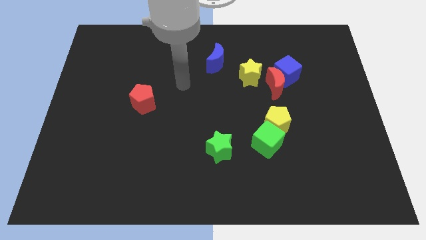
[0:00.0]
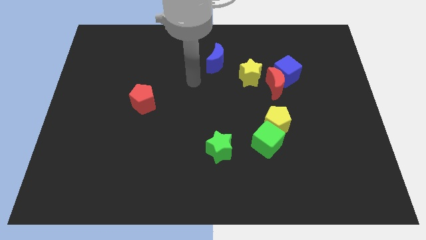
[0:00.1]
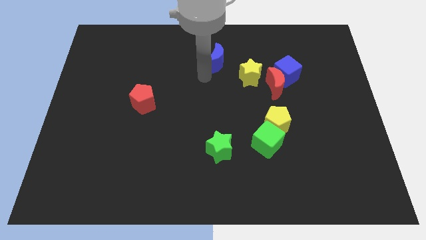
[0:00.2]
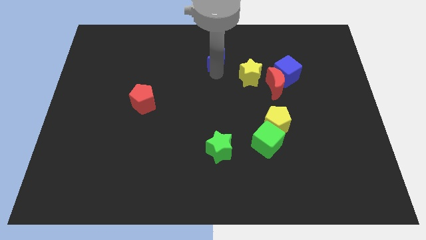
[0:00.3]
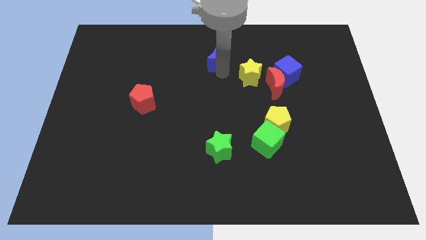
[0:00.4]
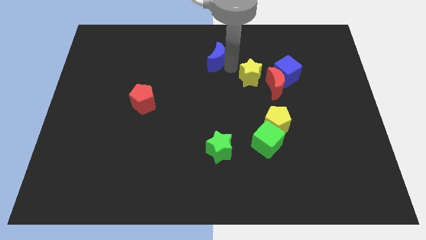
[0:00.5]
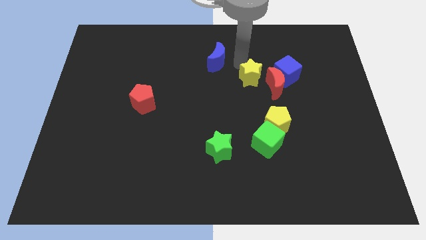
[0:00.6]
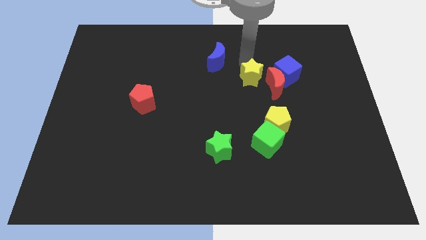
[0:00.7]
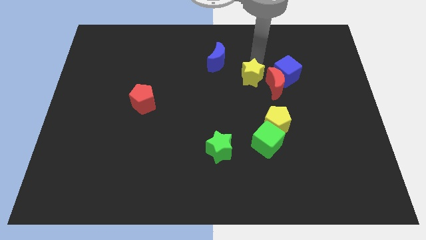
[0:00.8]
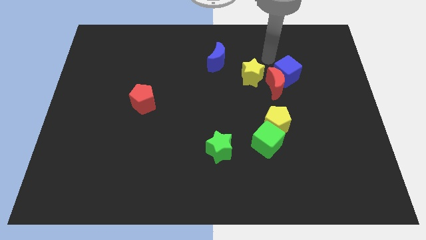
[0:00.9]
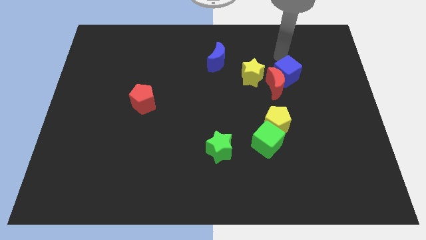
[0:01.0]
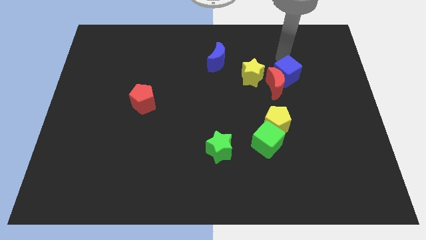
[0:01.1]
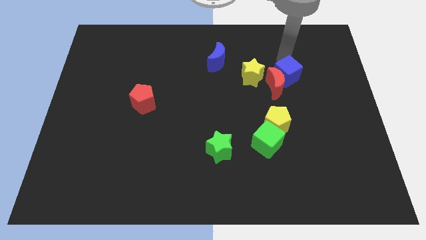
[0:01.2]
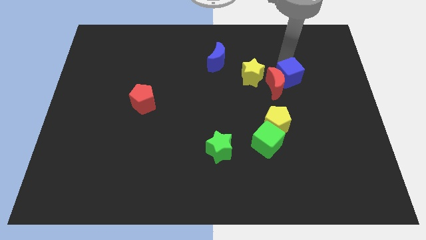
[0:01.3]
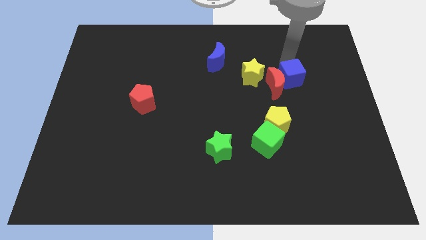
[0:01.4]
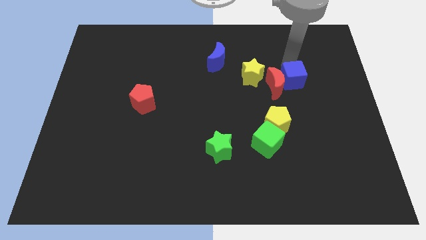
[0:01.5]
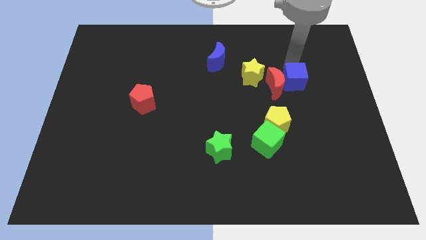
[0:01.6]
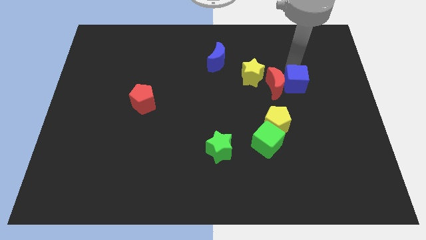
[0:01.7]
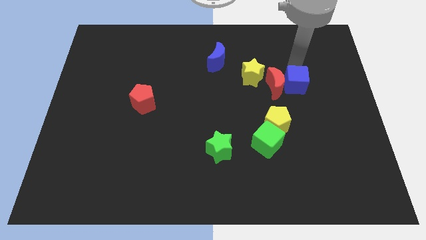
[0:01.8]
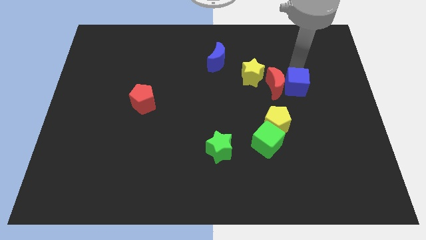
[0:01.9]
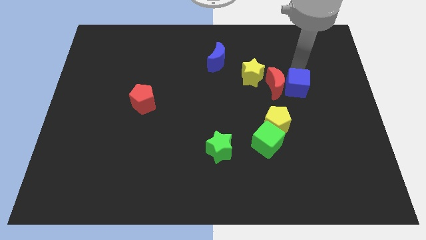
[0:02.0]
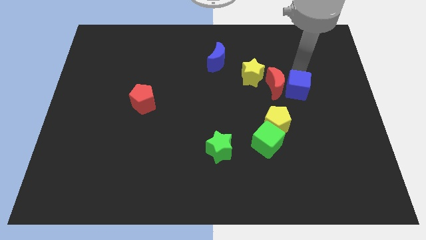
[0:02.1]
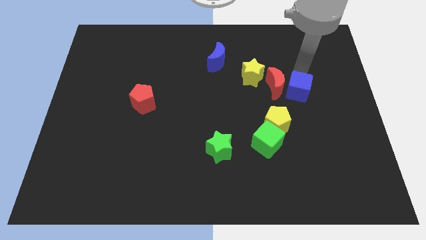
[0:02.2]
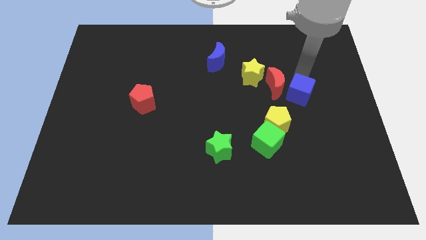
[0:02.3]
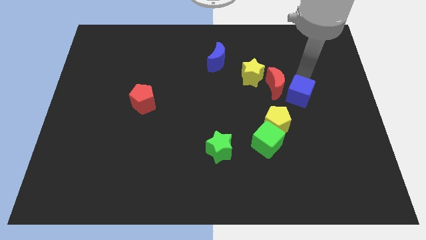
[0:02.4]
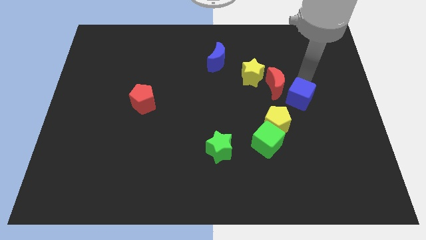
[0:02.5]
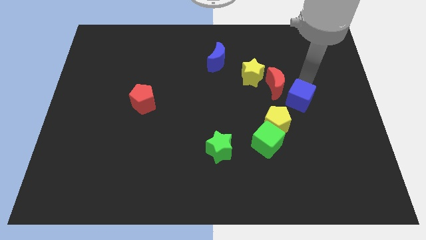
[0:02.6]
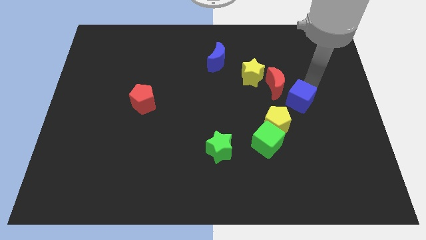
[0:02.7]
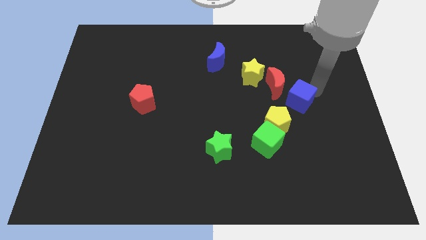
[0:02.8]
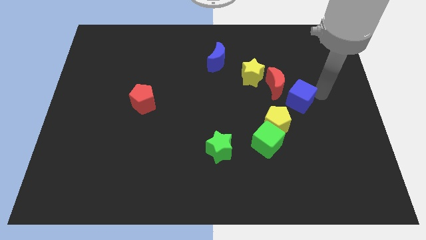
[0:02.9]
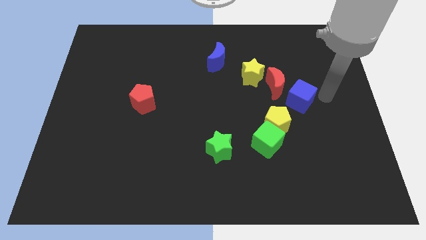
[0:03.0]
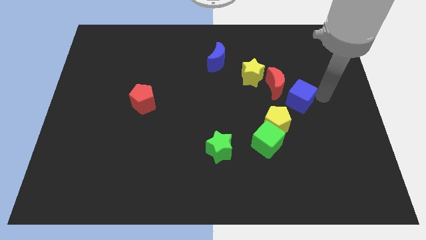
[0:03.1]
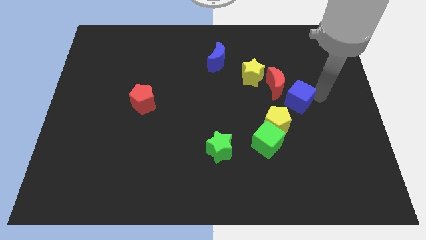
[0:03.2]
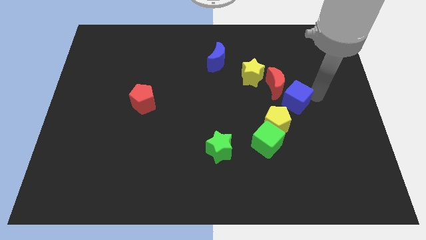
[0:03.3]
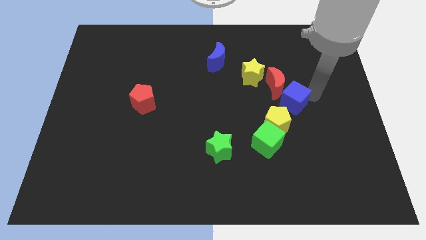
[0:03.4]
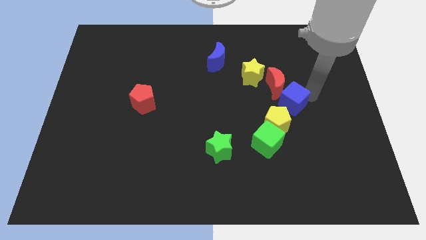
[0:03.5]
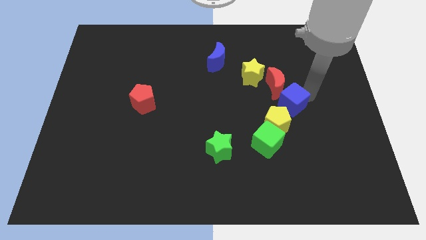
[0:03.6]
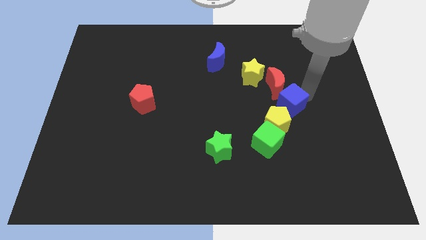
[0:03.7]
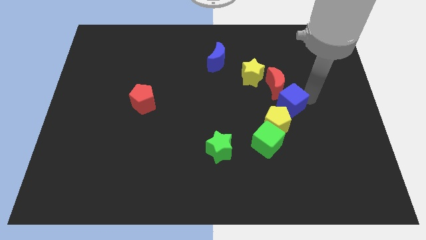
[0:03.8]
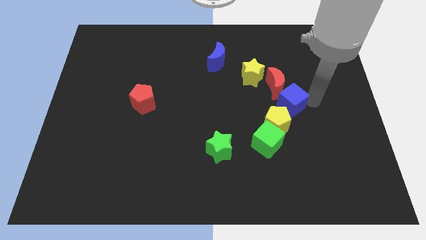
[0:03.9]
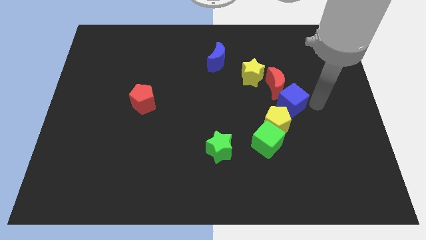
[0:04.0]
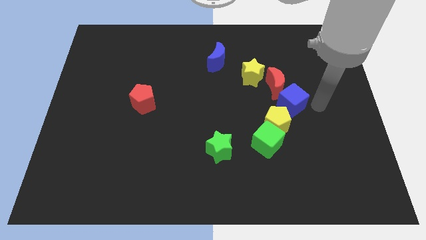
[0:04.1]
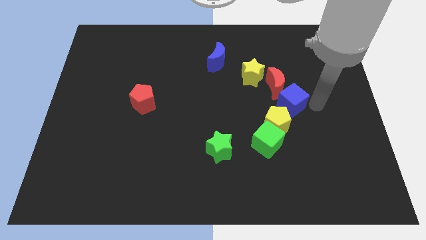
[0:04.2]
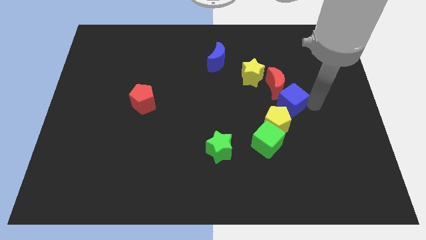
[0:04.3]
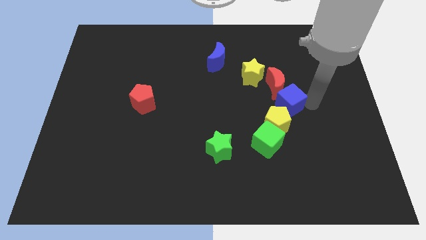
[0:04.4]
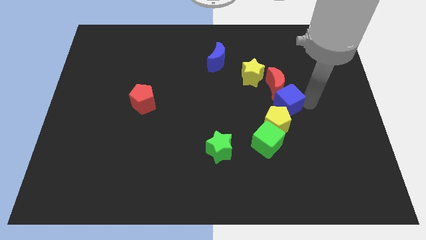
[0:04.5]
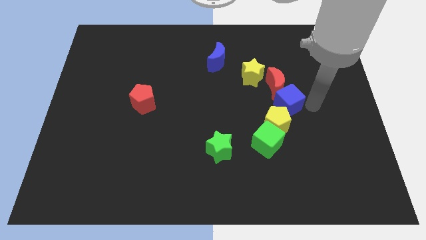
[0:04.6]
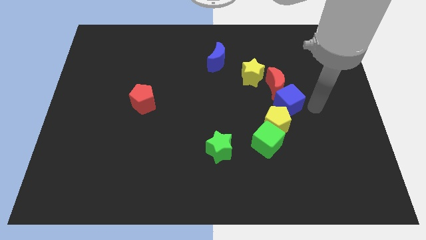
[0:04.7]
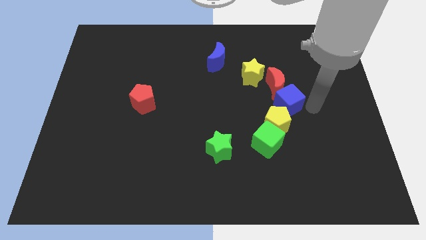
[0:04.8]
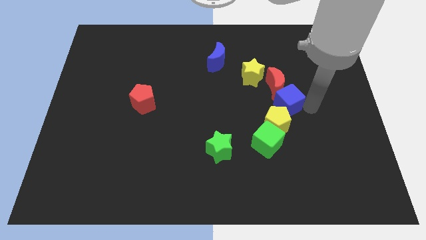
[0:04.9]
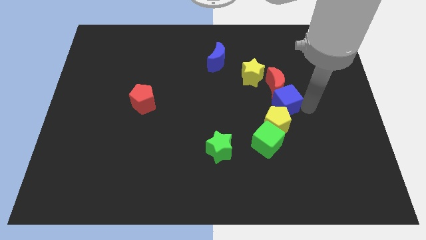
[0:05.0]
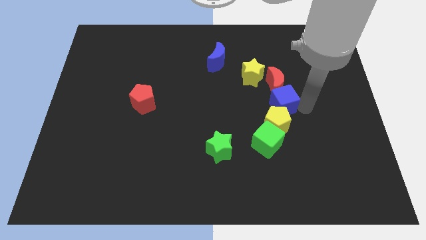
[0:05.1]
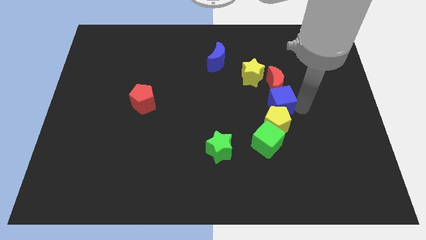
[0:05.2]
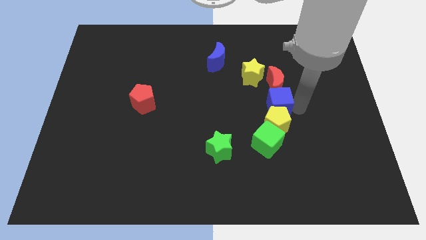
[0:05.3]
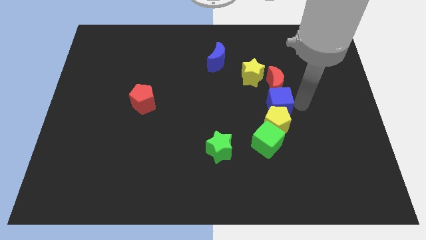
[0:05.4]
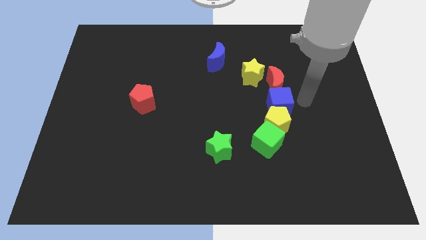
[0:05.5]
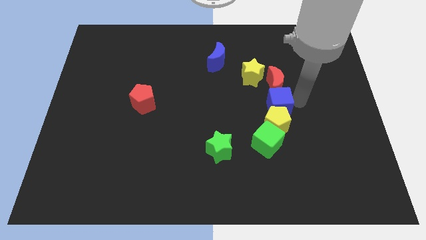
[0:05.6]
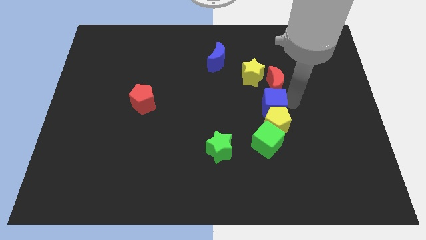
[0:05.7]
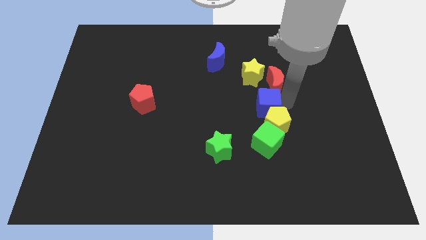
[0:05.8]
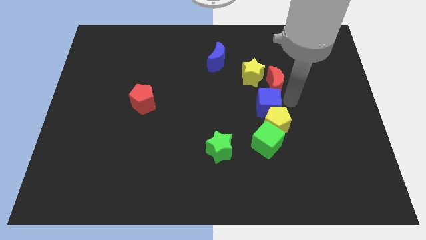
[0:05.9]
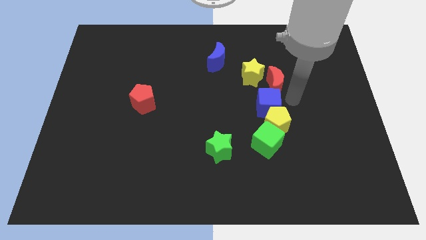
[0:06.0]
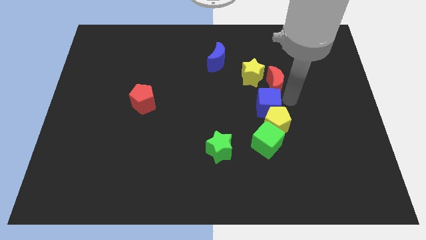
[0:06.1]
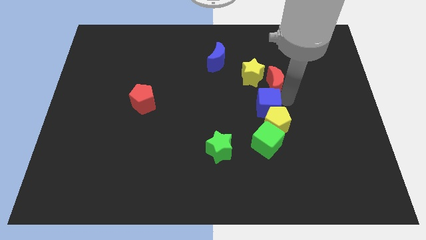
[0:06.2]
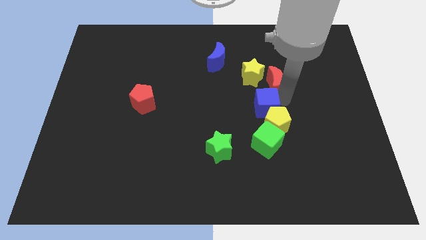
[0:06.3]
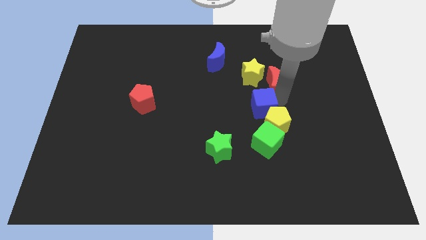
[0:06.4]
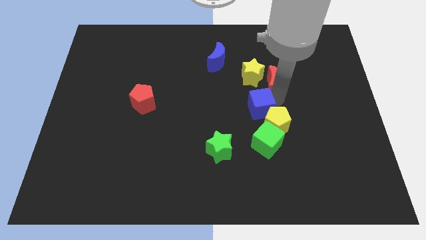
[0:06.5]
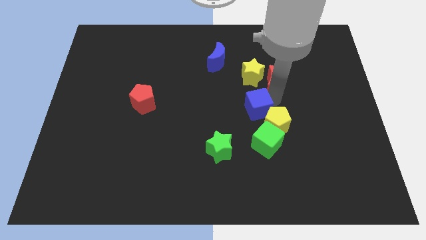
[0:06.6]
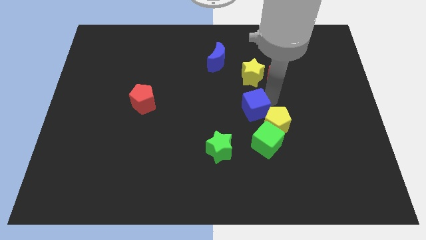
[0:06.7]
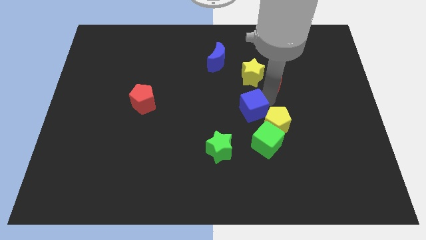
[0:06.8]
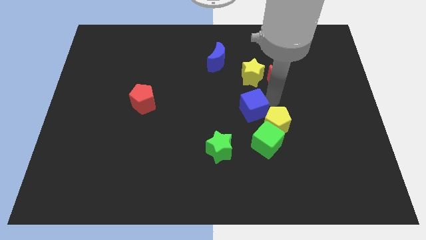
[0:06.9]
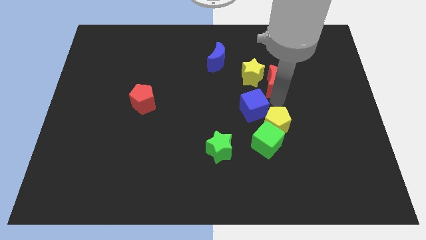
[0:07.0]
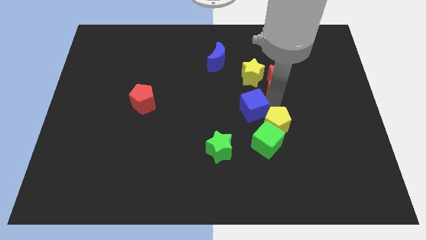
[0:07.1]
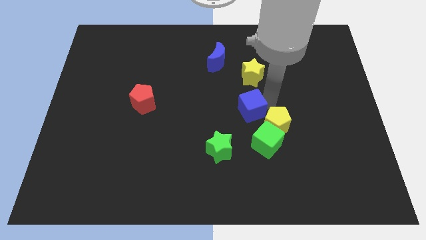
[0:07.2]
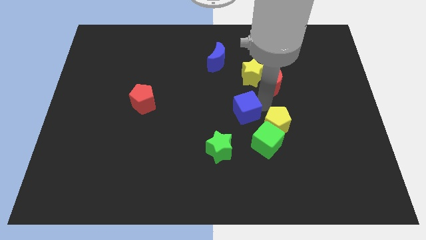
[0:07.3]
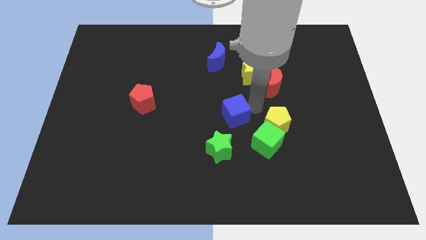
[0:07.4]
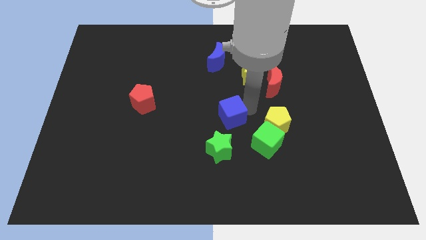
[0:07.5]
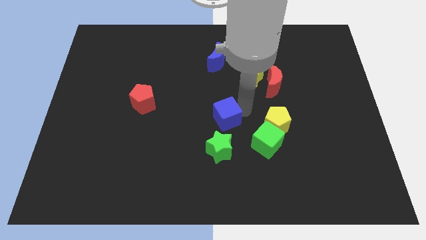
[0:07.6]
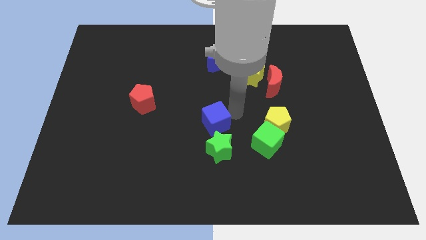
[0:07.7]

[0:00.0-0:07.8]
put the blue cube to the top left side of the green star

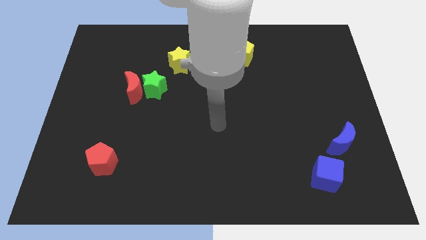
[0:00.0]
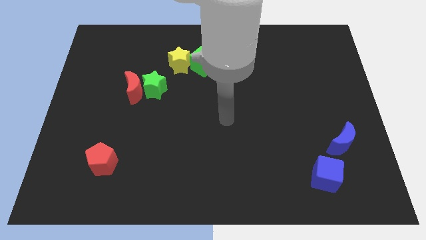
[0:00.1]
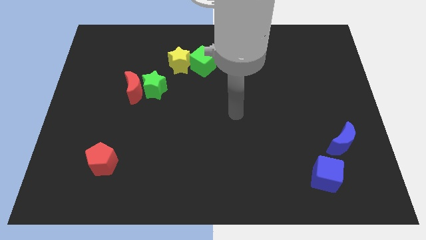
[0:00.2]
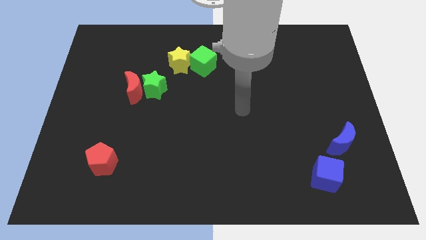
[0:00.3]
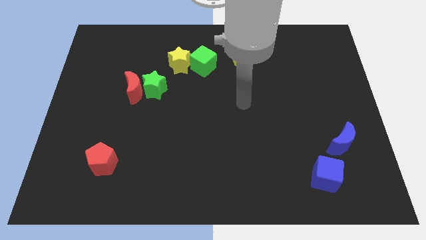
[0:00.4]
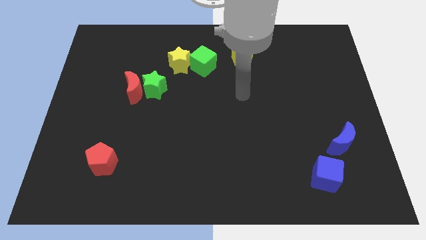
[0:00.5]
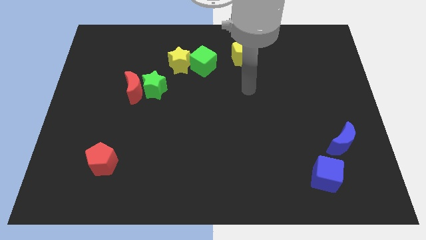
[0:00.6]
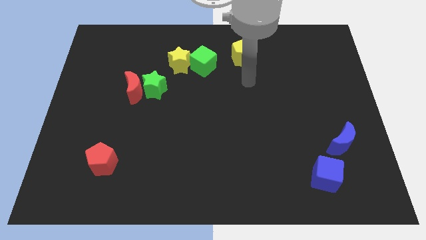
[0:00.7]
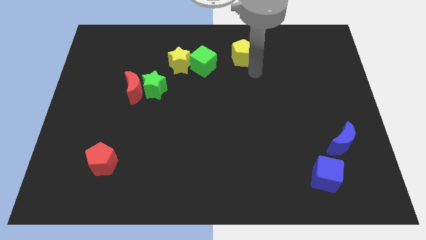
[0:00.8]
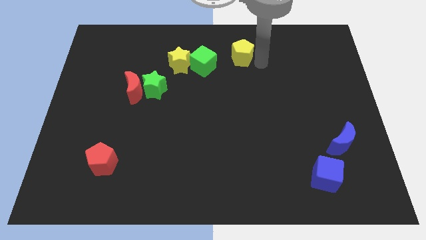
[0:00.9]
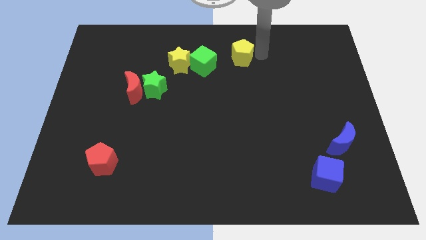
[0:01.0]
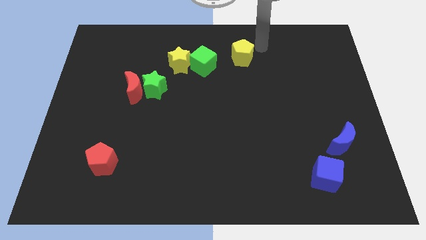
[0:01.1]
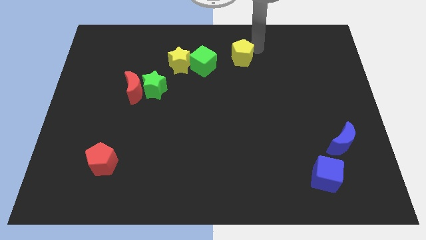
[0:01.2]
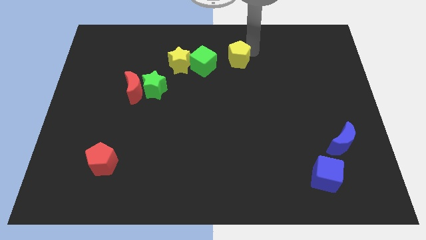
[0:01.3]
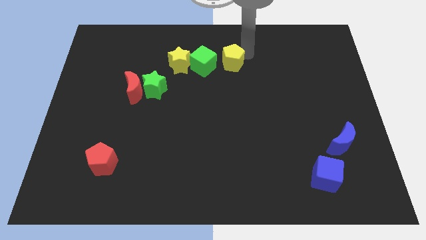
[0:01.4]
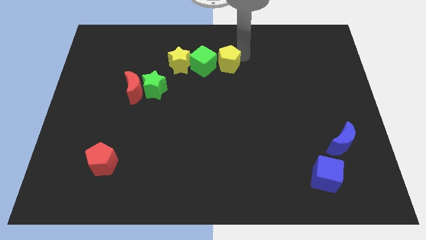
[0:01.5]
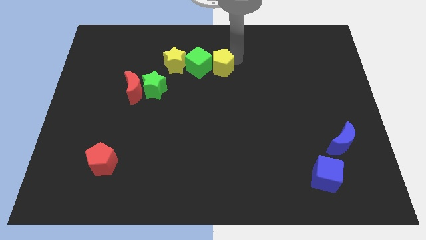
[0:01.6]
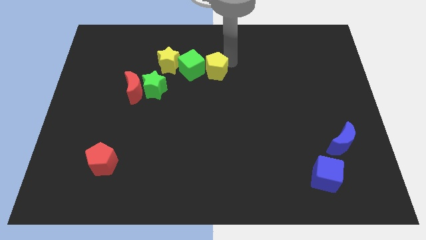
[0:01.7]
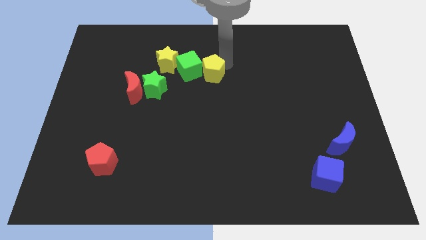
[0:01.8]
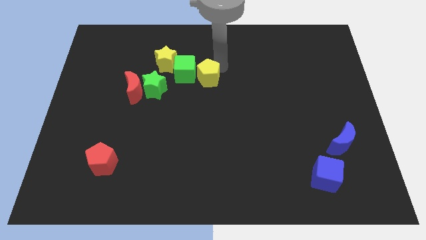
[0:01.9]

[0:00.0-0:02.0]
put the yellow pentagon to the right side of the green star
